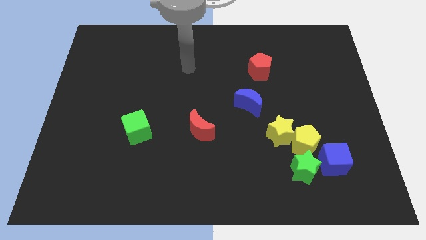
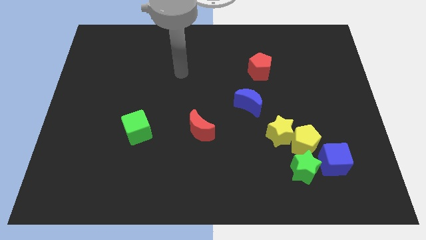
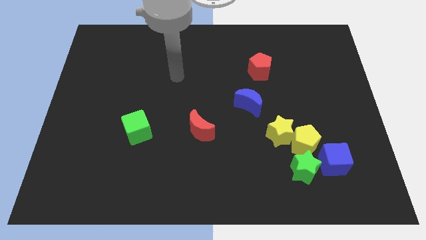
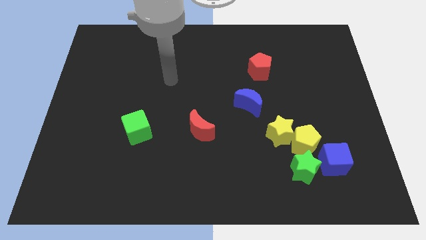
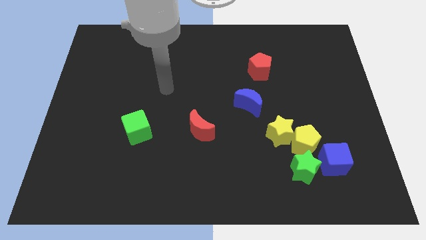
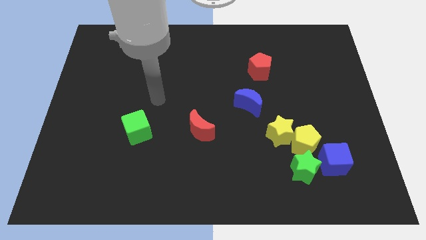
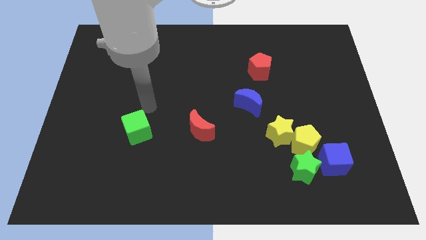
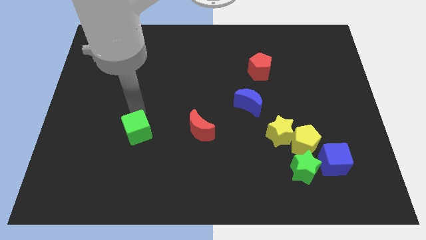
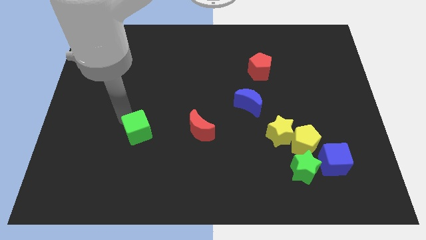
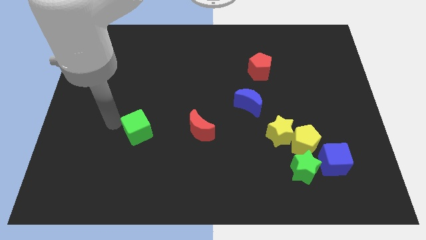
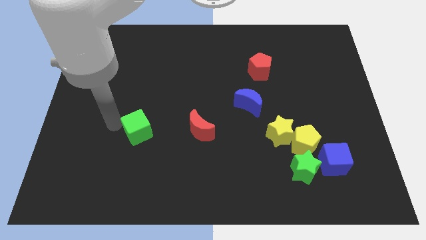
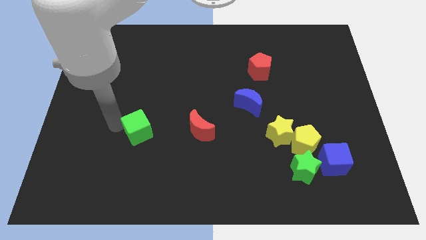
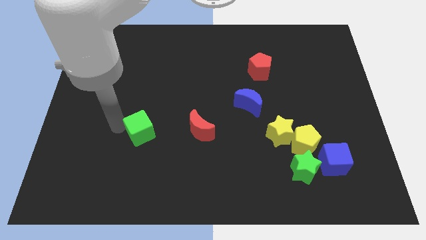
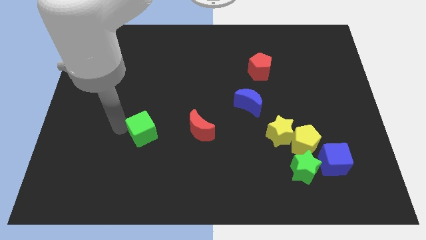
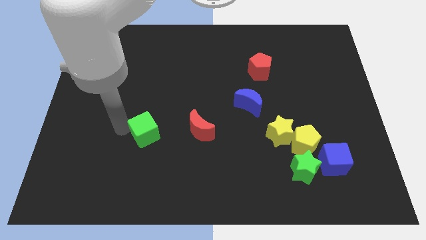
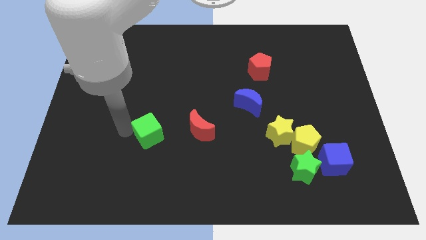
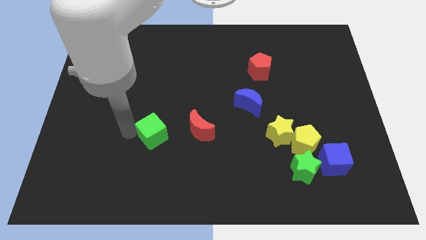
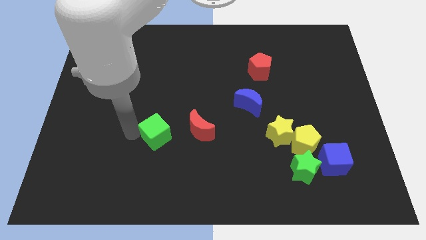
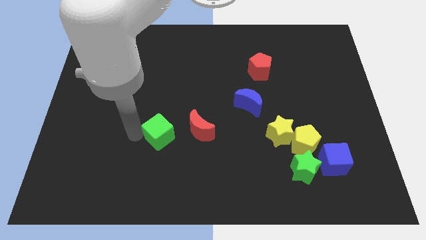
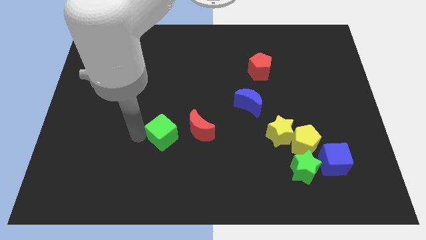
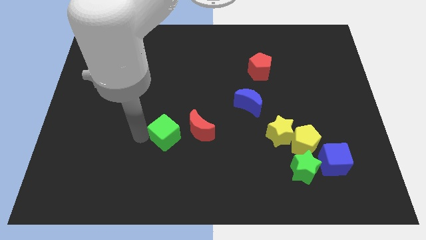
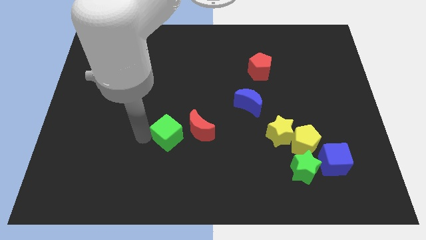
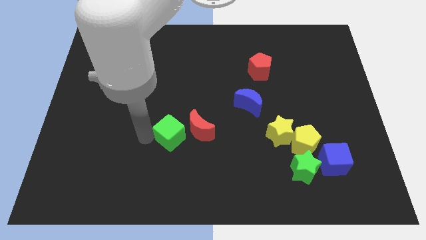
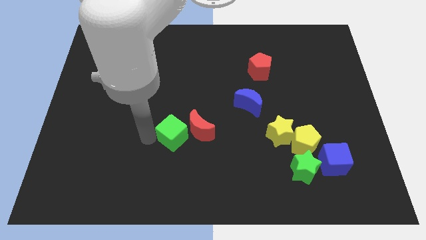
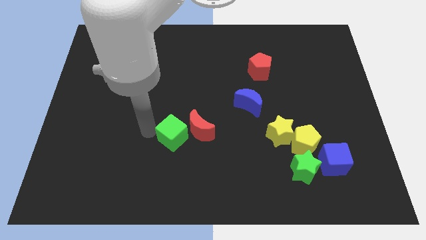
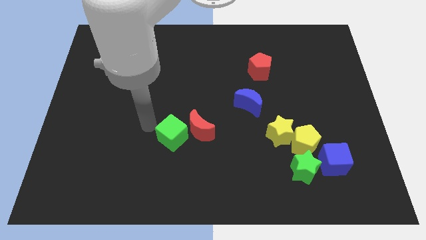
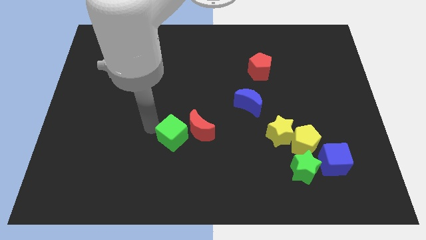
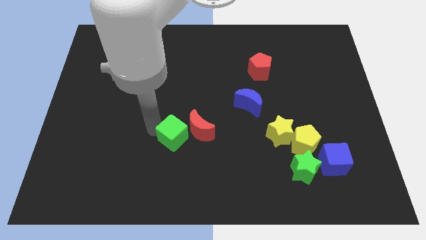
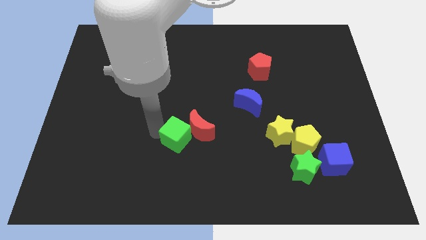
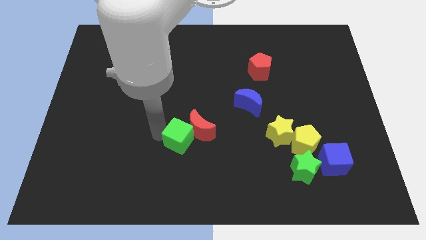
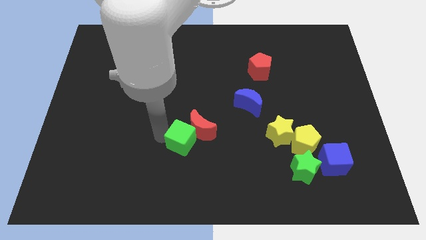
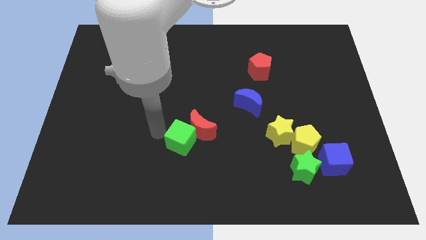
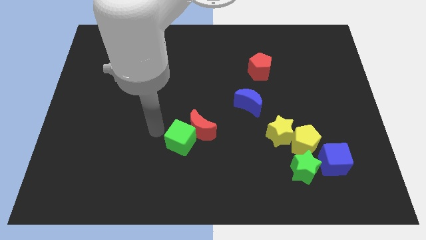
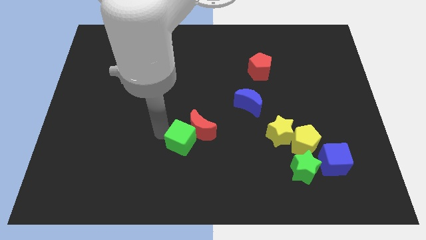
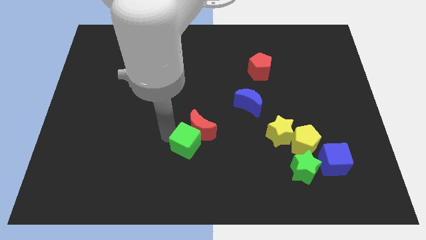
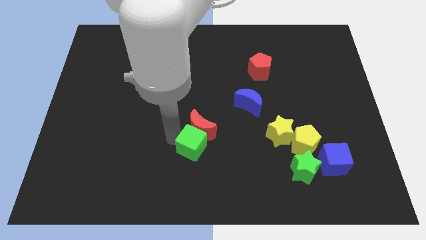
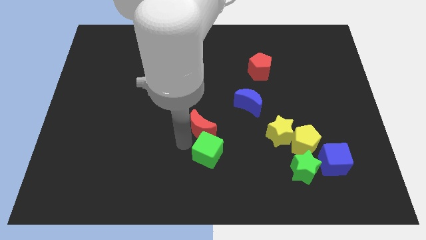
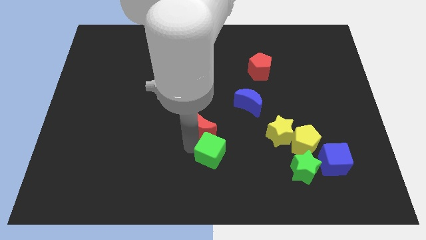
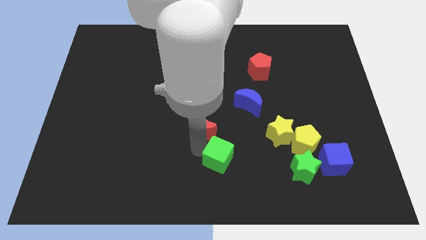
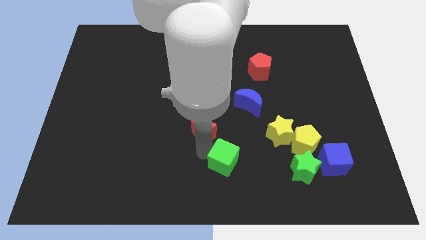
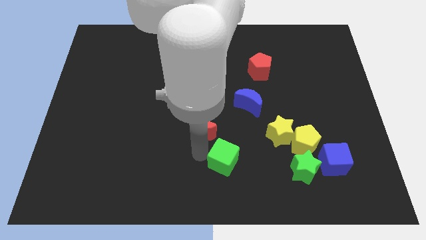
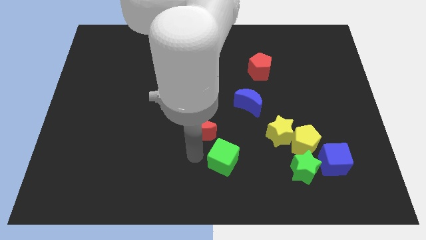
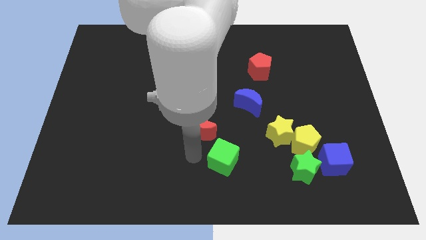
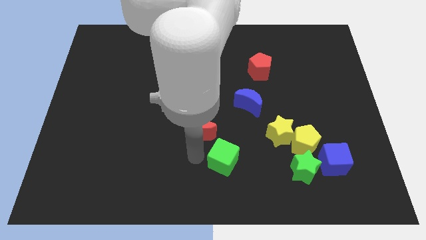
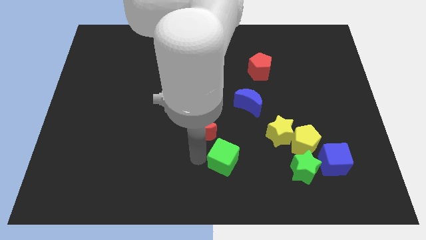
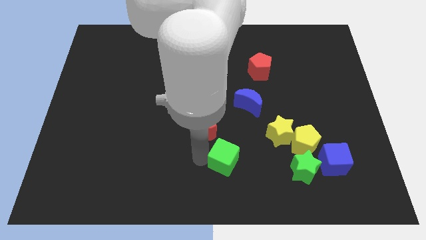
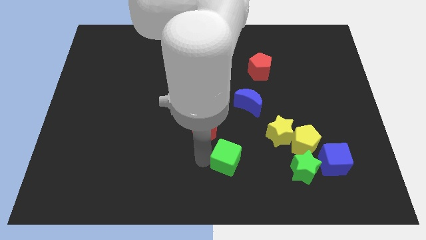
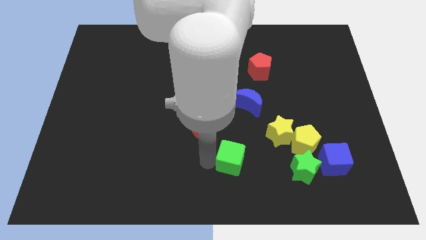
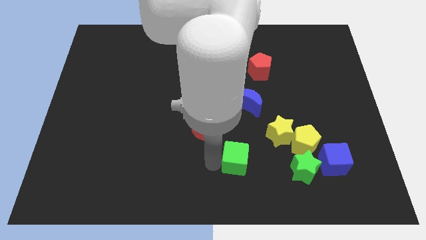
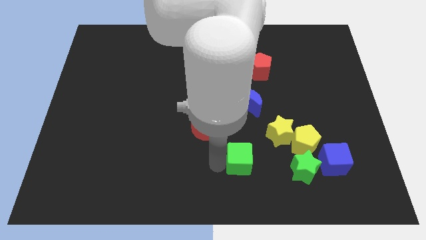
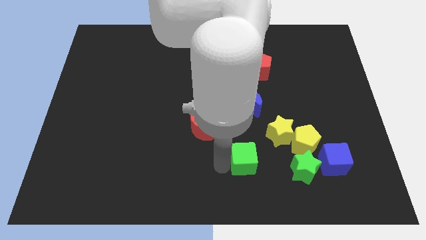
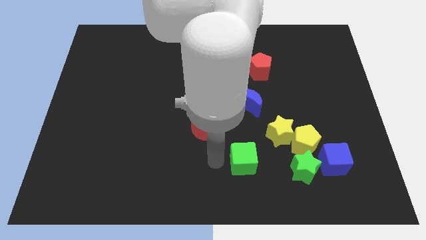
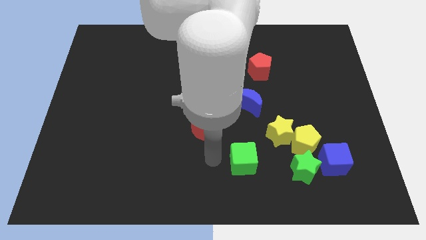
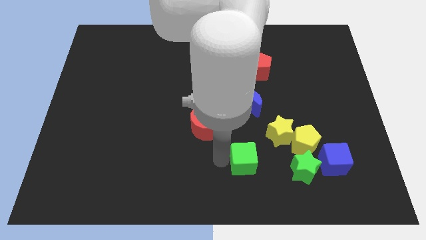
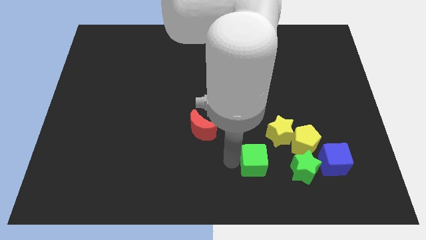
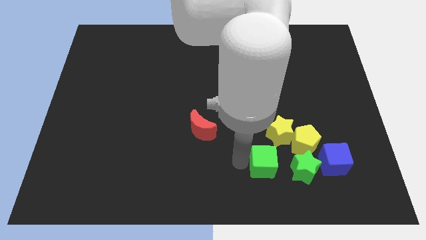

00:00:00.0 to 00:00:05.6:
move the green cube to the bottom left side of the yellow pentagon

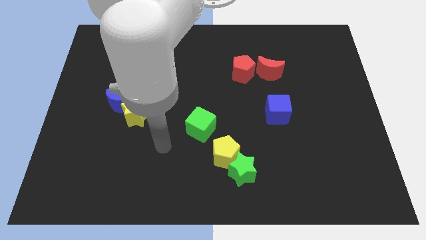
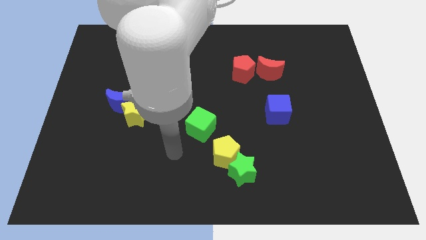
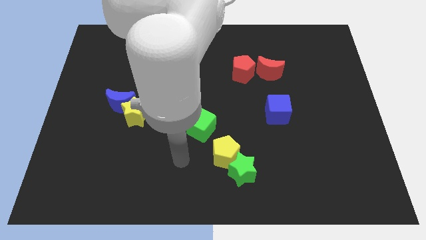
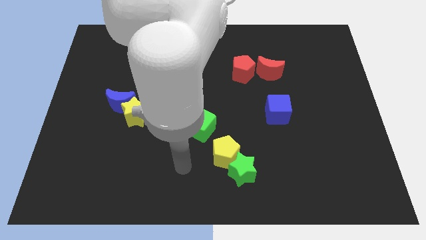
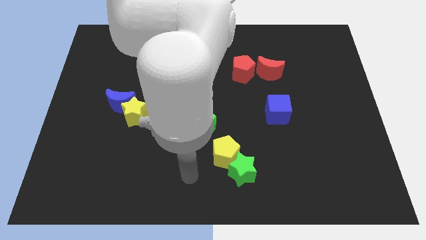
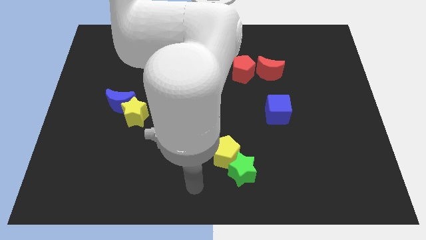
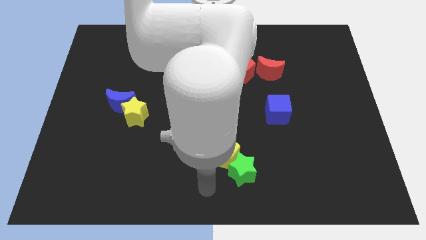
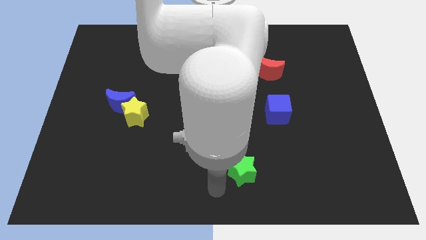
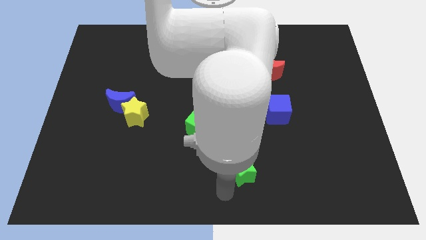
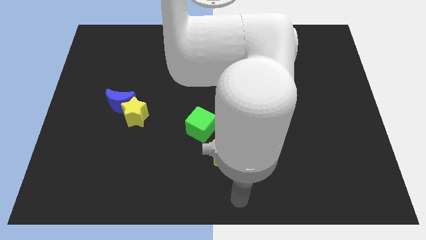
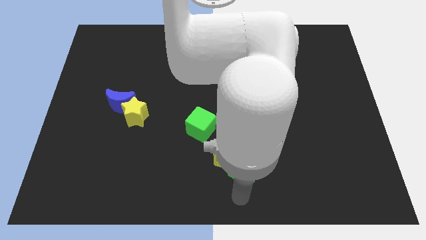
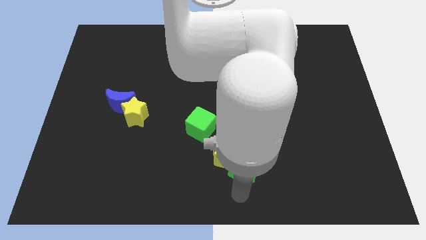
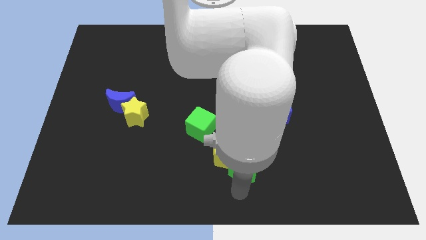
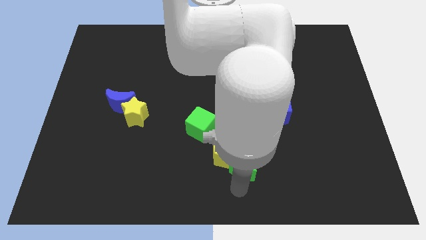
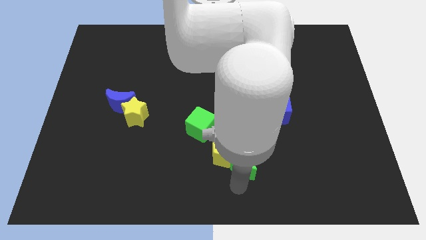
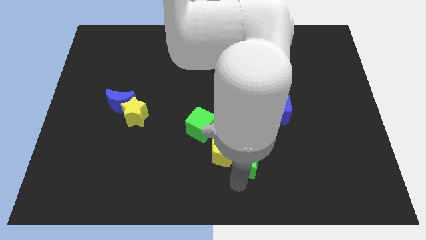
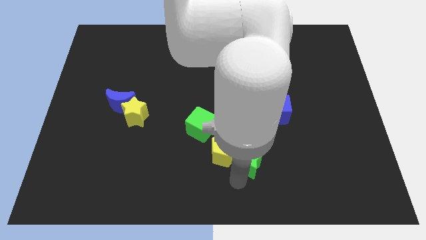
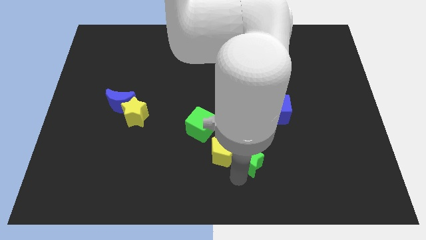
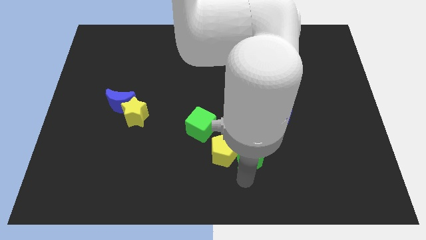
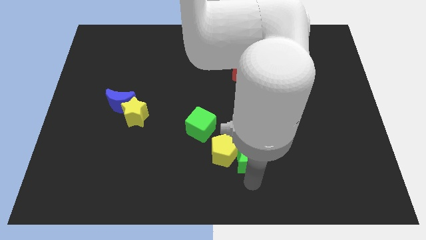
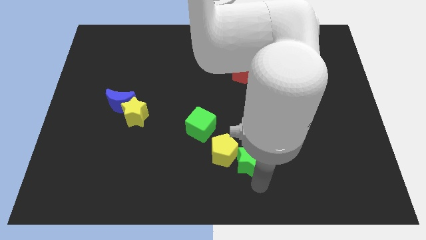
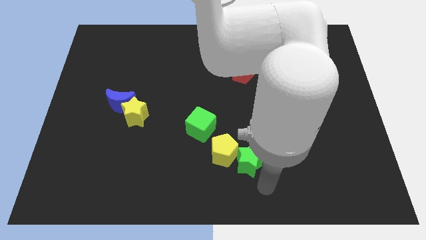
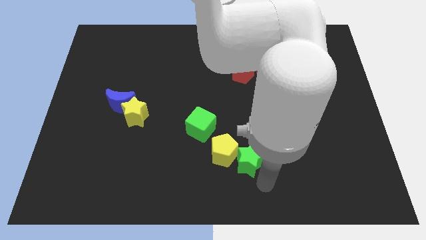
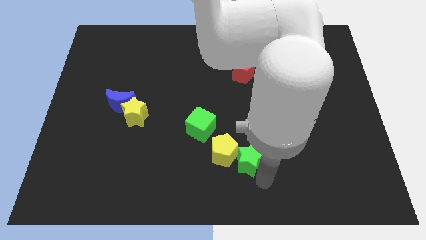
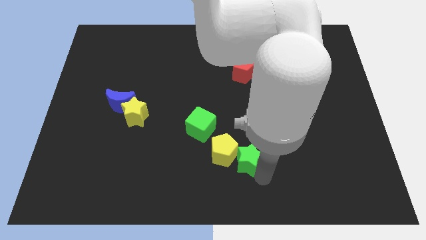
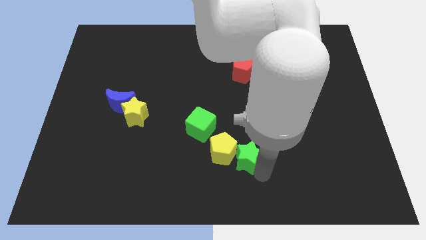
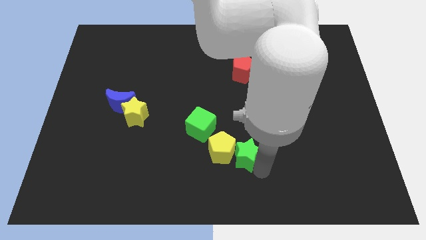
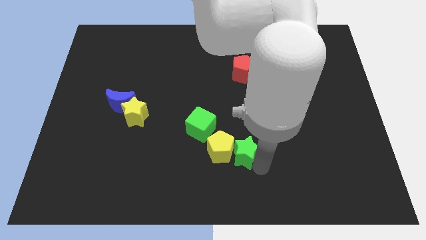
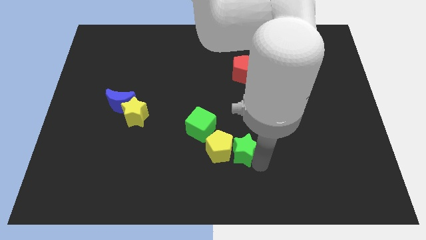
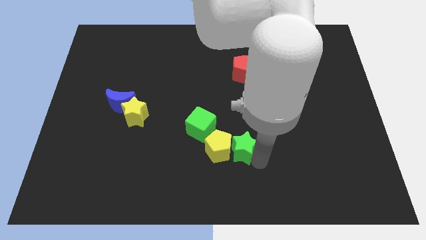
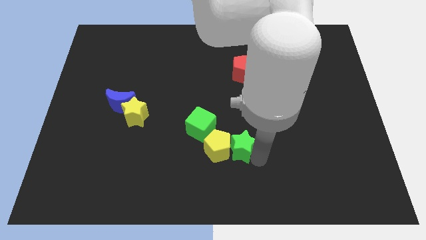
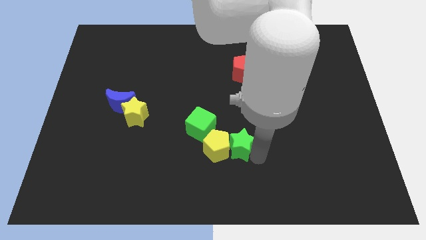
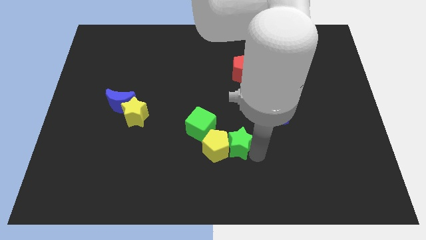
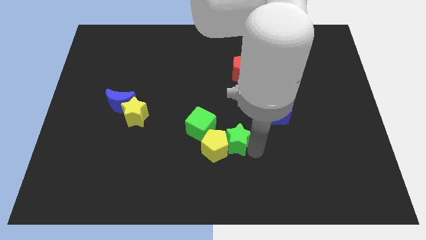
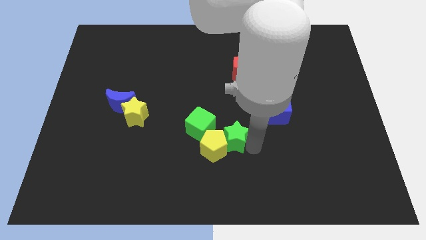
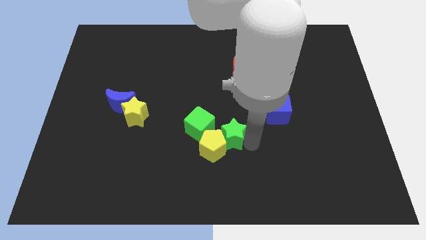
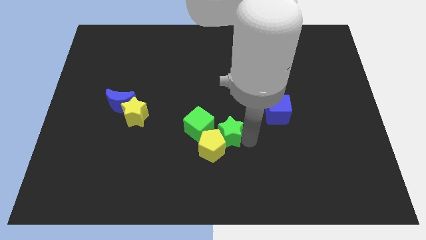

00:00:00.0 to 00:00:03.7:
slide the green star to the top side of the yellow pentagon
